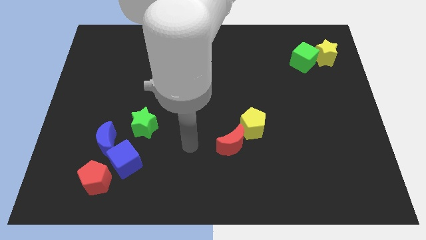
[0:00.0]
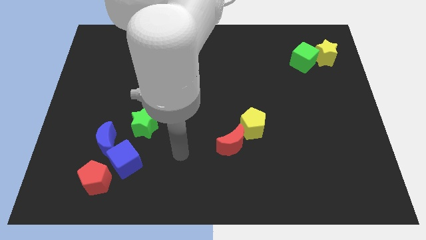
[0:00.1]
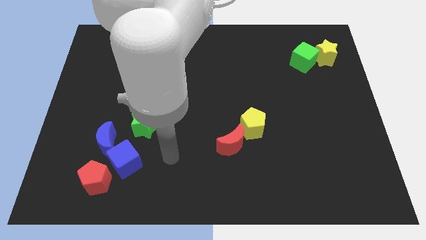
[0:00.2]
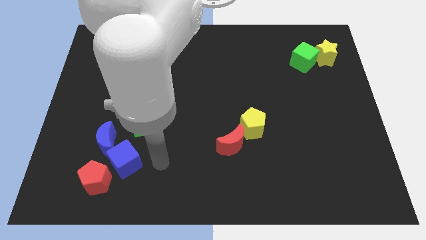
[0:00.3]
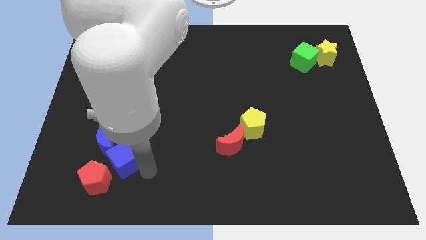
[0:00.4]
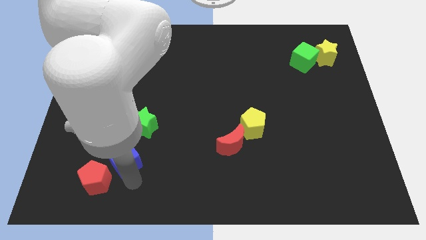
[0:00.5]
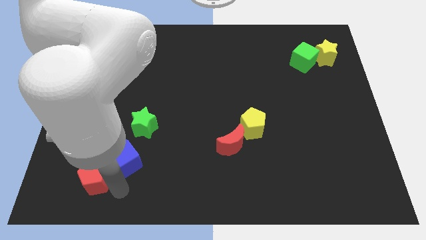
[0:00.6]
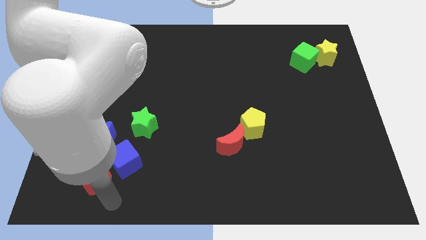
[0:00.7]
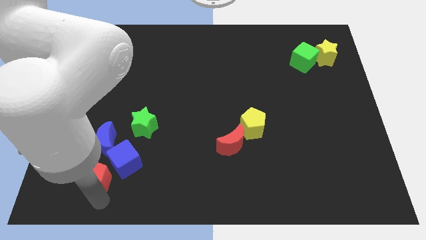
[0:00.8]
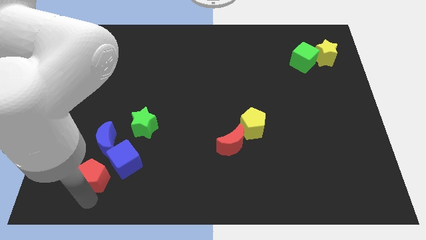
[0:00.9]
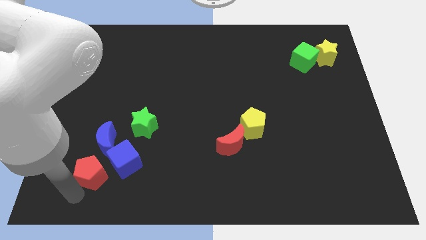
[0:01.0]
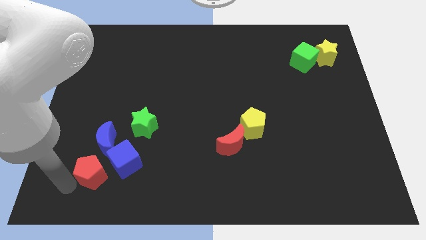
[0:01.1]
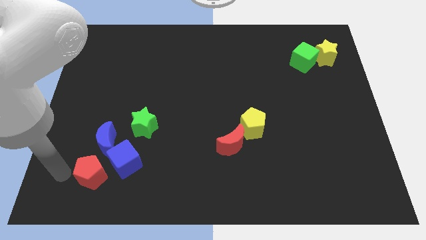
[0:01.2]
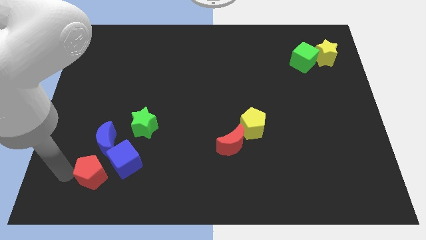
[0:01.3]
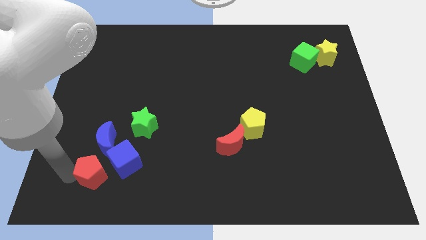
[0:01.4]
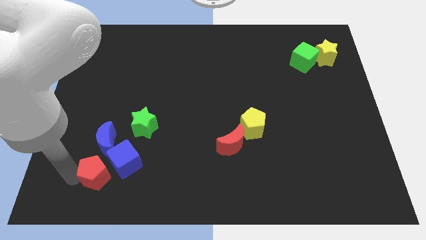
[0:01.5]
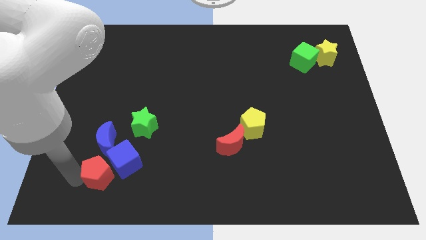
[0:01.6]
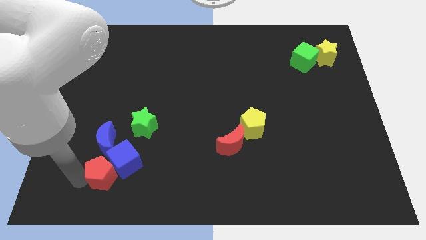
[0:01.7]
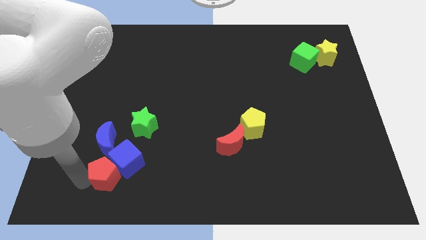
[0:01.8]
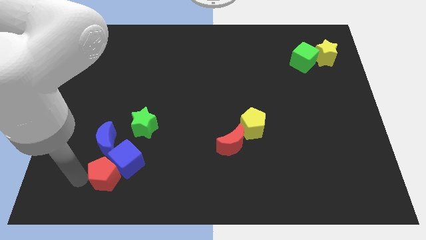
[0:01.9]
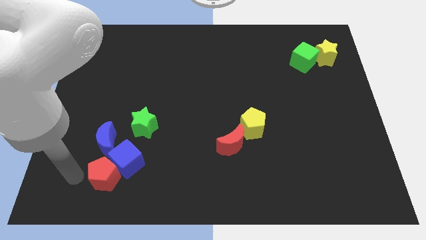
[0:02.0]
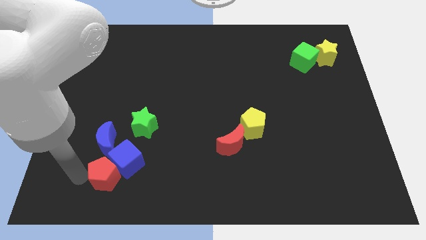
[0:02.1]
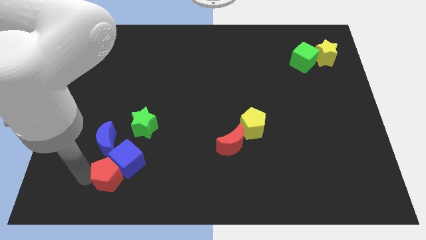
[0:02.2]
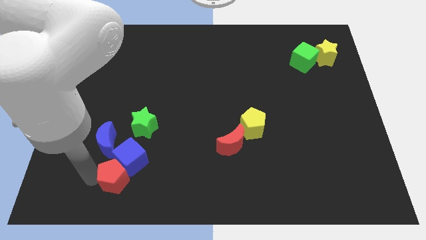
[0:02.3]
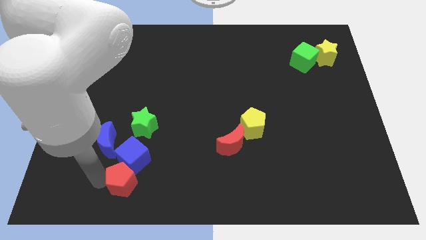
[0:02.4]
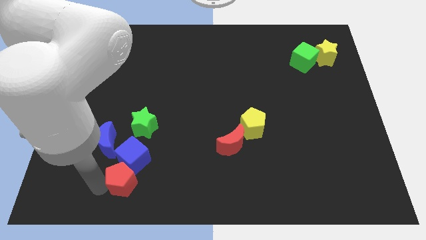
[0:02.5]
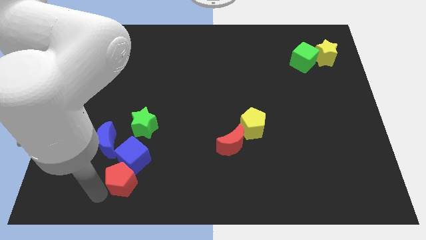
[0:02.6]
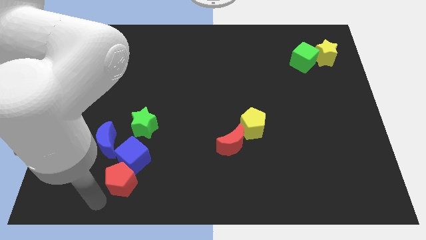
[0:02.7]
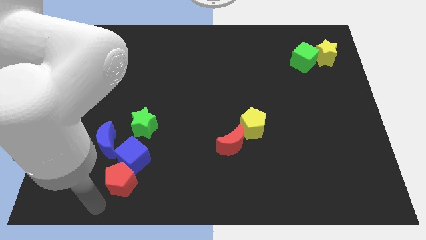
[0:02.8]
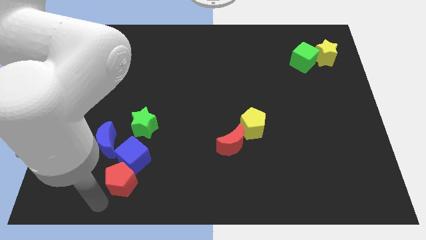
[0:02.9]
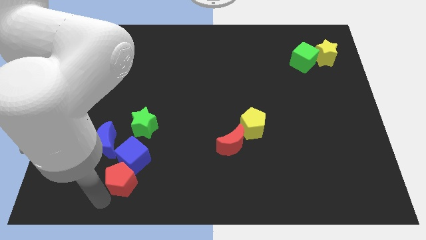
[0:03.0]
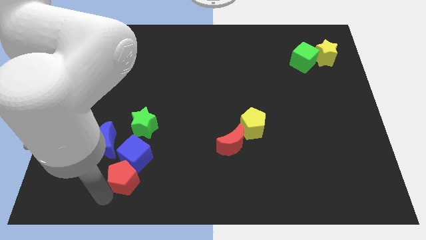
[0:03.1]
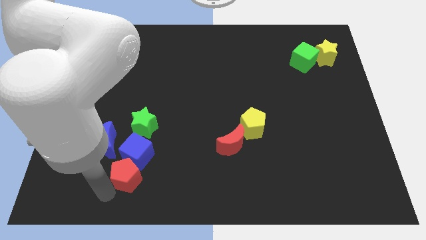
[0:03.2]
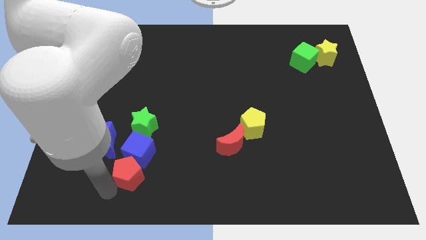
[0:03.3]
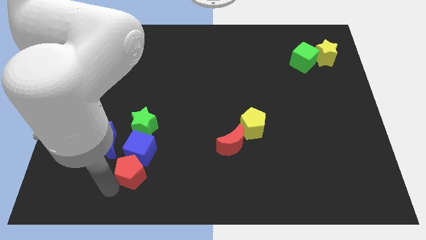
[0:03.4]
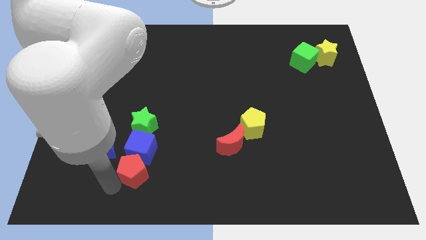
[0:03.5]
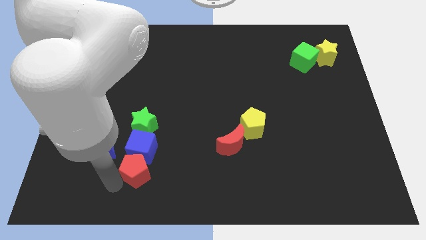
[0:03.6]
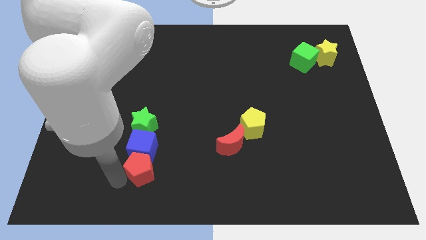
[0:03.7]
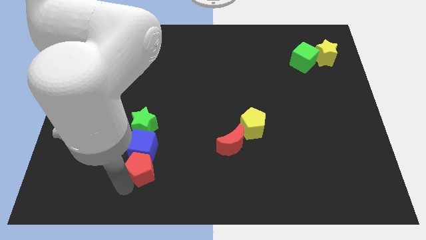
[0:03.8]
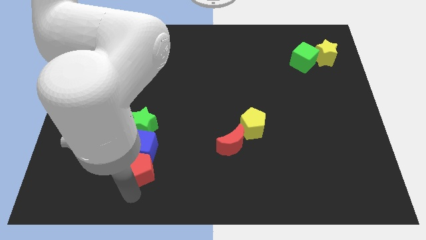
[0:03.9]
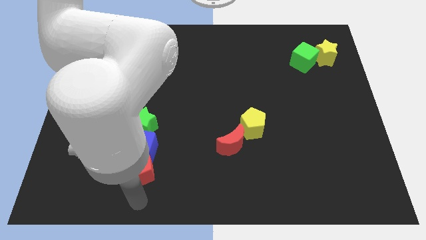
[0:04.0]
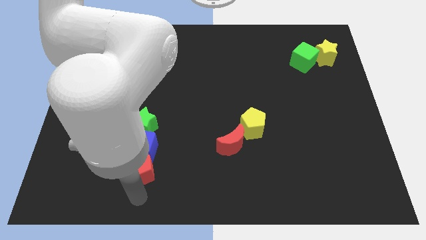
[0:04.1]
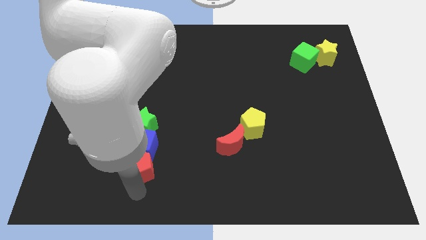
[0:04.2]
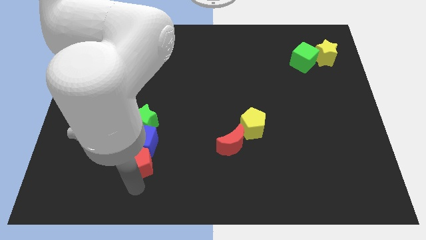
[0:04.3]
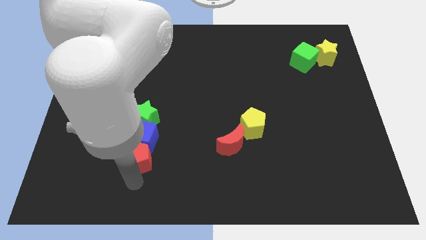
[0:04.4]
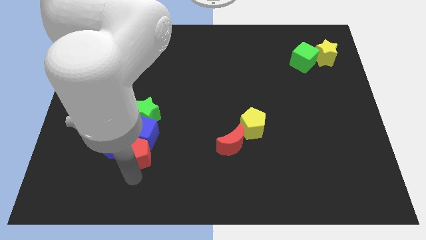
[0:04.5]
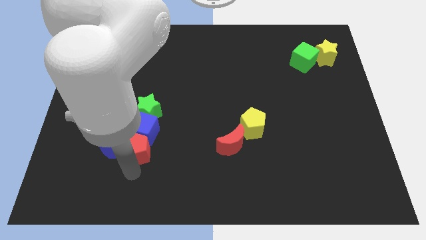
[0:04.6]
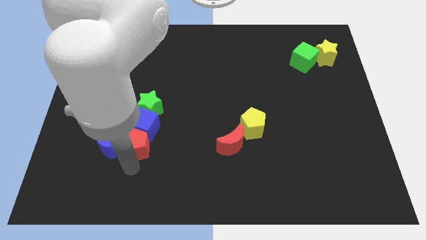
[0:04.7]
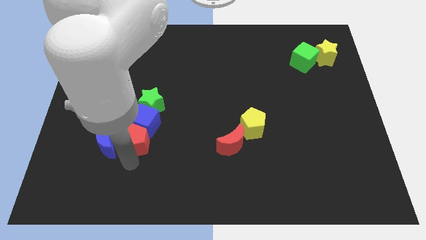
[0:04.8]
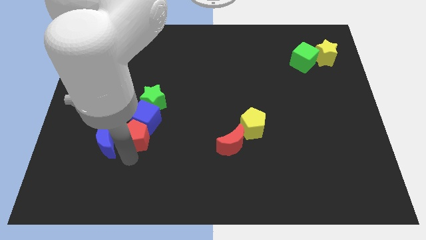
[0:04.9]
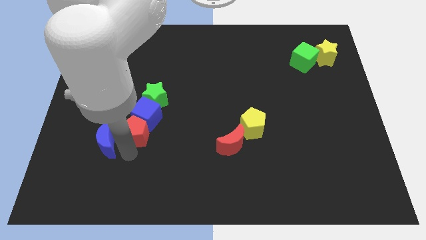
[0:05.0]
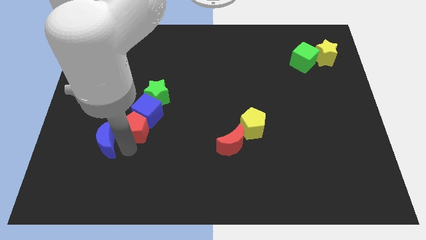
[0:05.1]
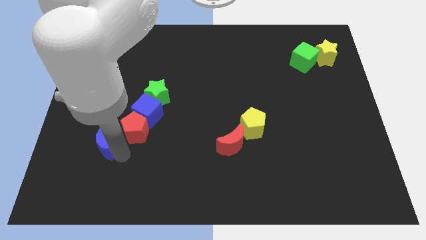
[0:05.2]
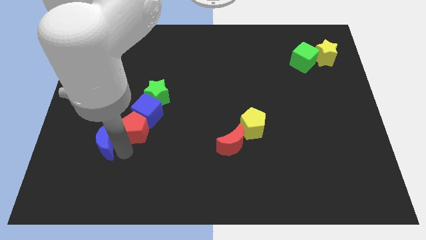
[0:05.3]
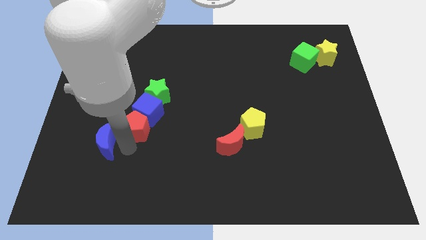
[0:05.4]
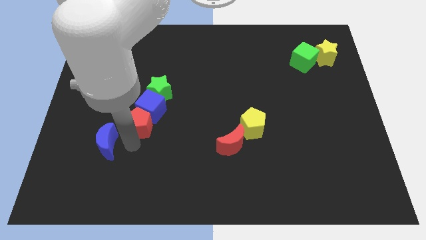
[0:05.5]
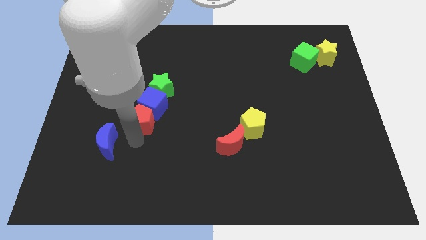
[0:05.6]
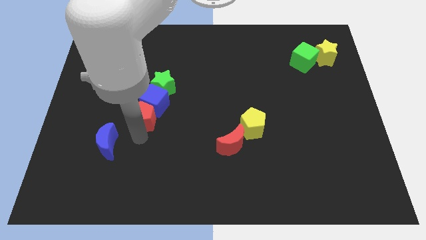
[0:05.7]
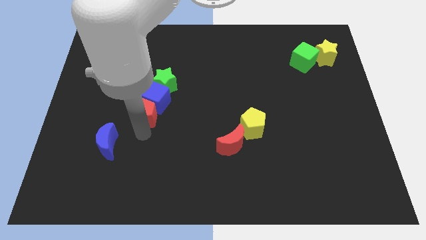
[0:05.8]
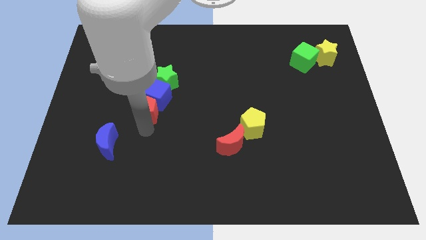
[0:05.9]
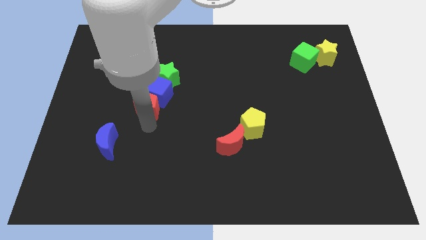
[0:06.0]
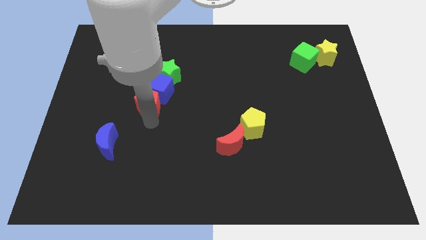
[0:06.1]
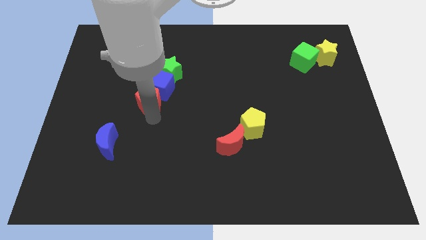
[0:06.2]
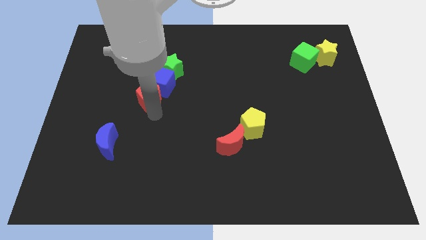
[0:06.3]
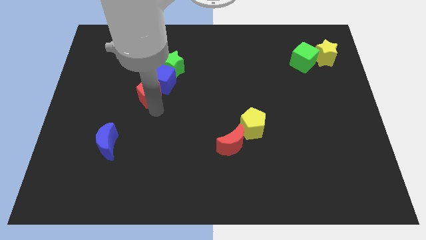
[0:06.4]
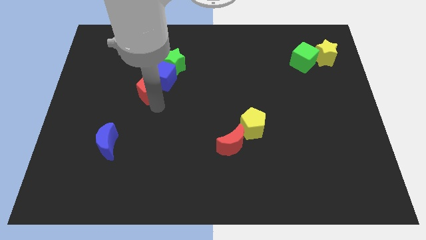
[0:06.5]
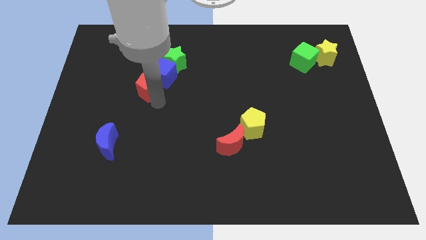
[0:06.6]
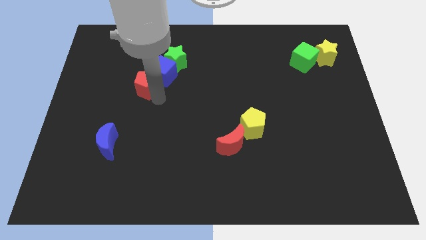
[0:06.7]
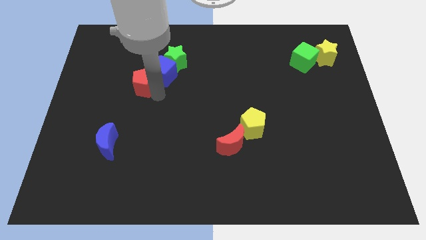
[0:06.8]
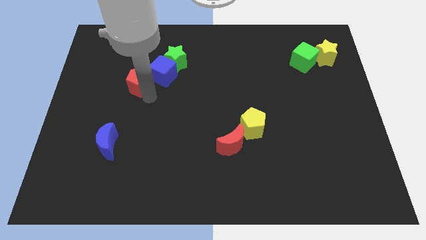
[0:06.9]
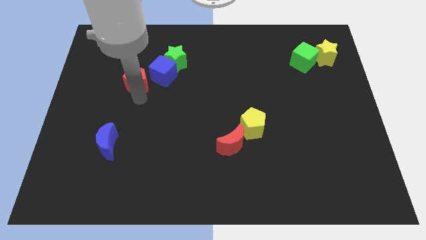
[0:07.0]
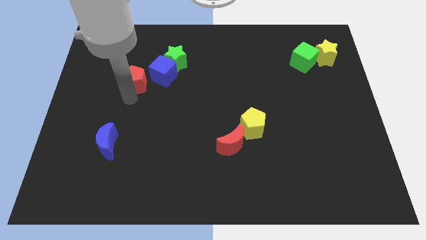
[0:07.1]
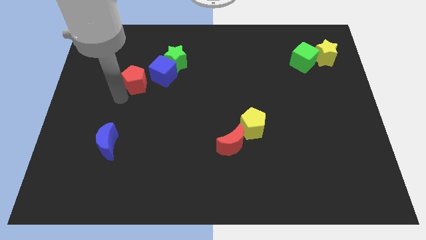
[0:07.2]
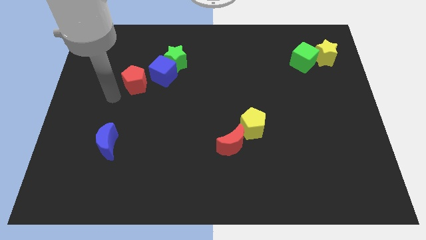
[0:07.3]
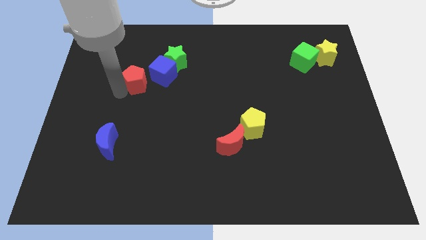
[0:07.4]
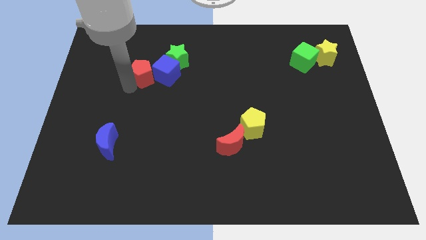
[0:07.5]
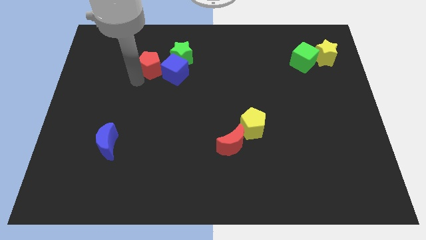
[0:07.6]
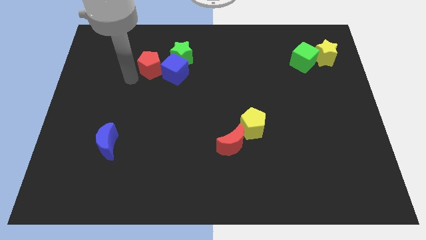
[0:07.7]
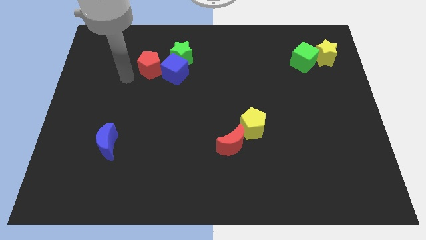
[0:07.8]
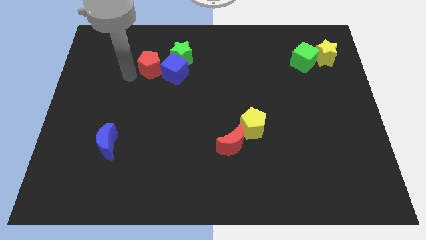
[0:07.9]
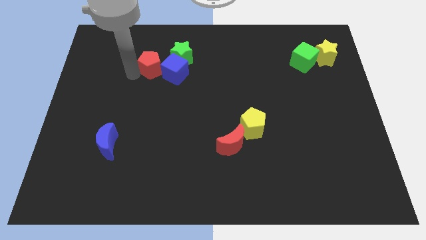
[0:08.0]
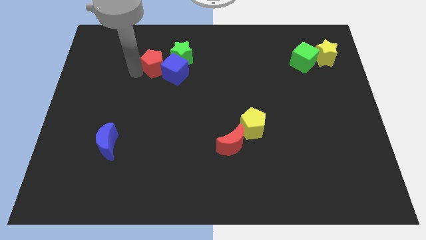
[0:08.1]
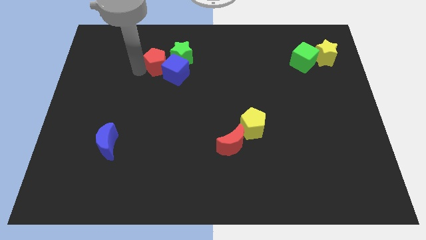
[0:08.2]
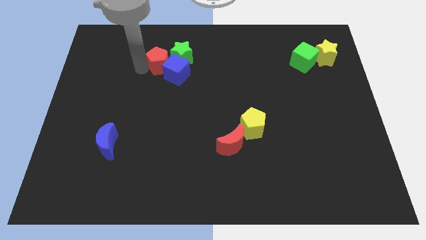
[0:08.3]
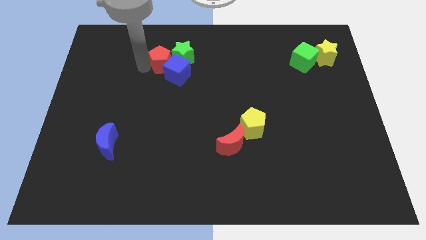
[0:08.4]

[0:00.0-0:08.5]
move the red pentagon close to the green star
